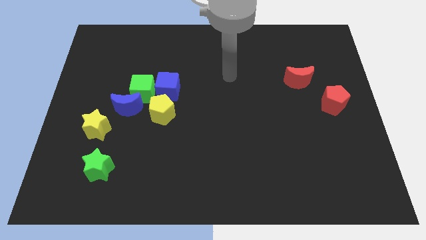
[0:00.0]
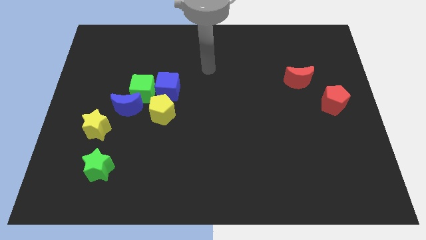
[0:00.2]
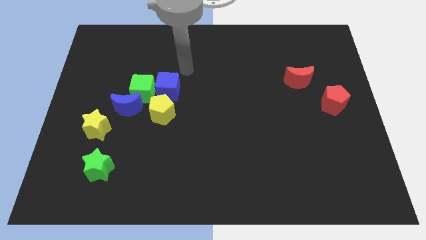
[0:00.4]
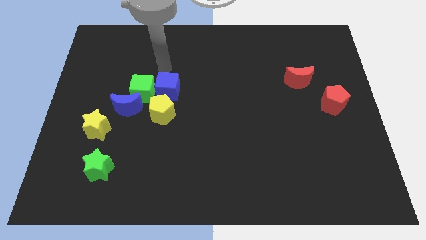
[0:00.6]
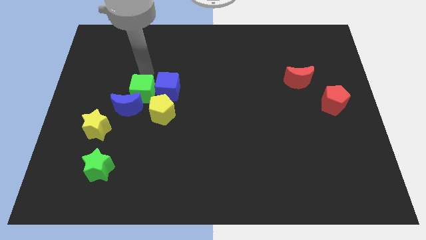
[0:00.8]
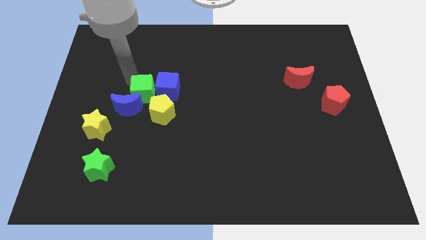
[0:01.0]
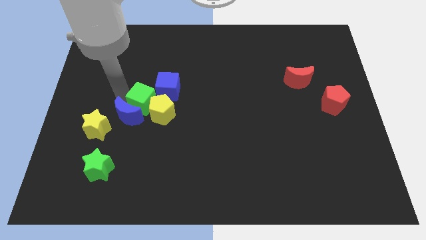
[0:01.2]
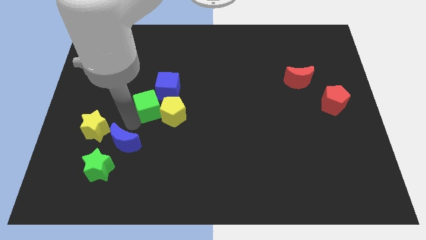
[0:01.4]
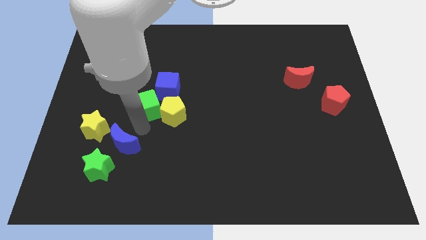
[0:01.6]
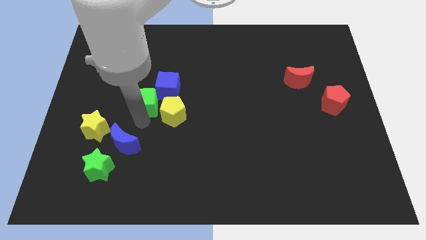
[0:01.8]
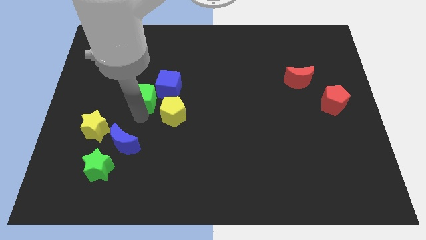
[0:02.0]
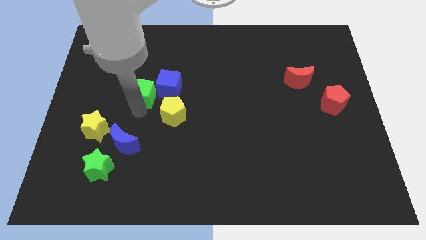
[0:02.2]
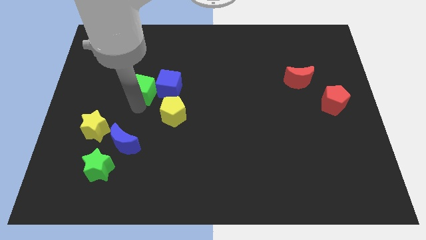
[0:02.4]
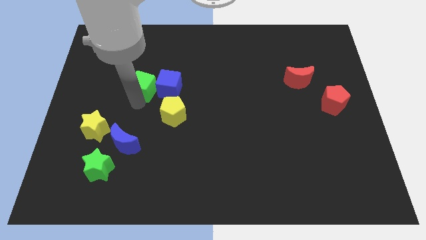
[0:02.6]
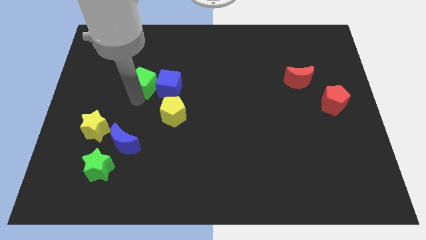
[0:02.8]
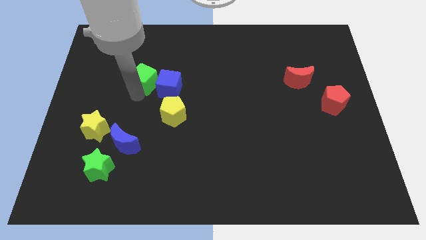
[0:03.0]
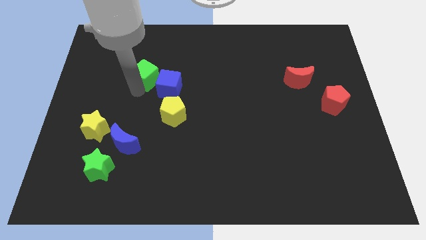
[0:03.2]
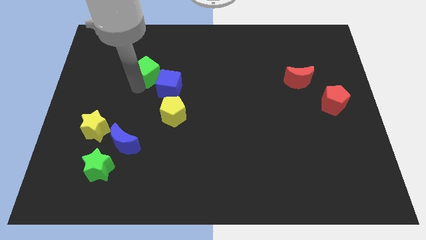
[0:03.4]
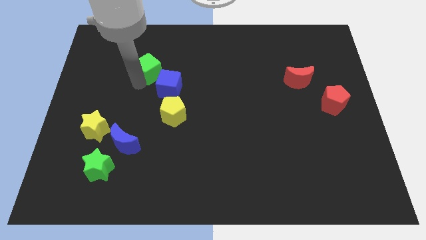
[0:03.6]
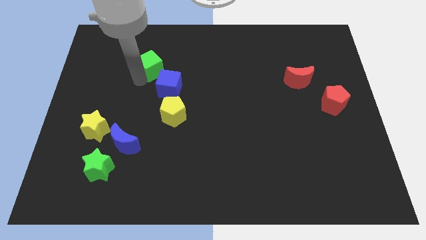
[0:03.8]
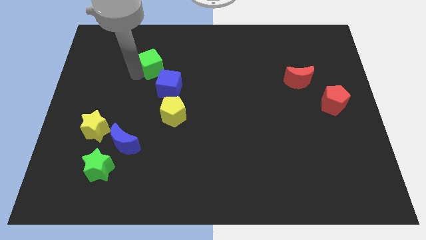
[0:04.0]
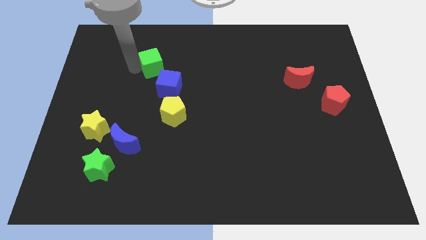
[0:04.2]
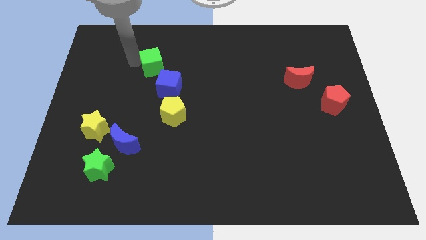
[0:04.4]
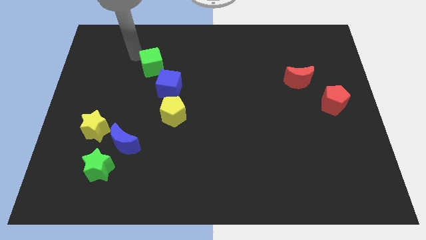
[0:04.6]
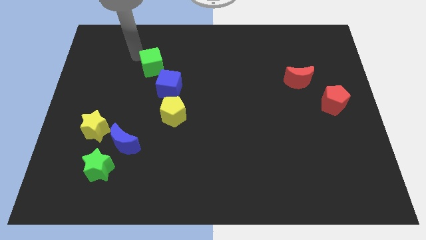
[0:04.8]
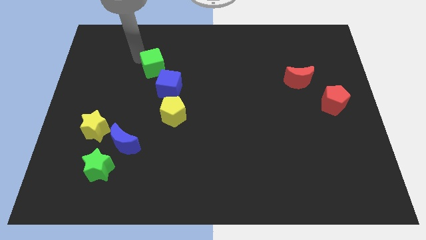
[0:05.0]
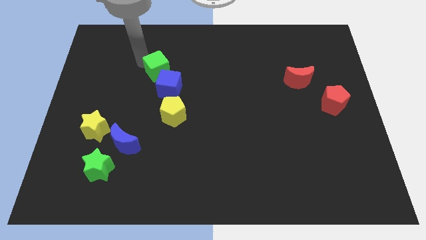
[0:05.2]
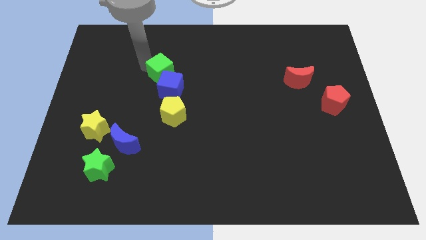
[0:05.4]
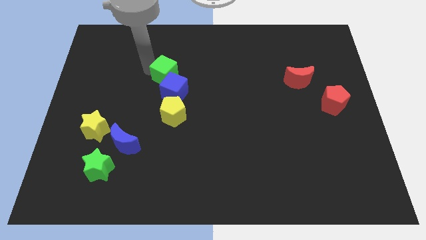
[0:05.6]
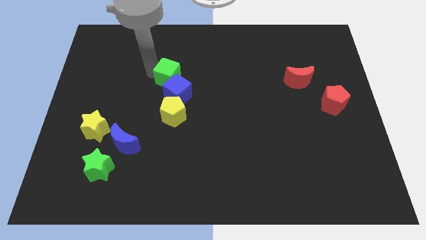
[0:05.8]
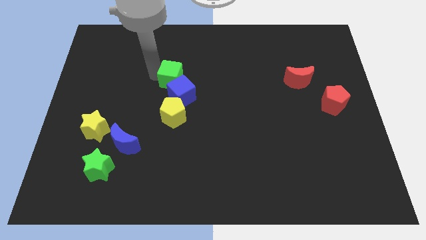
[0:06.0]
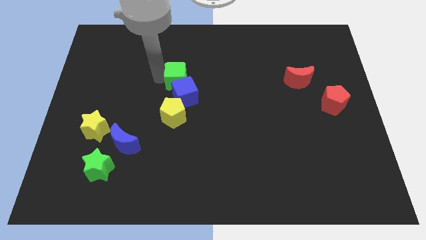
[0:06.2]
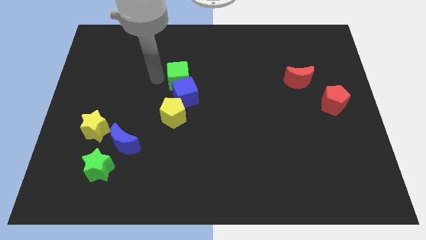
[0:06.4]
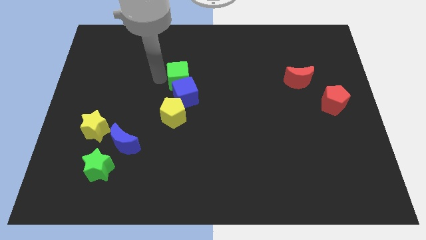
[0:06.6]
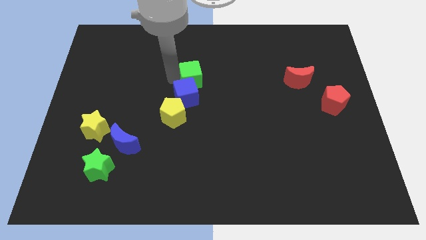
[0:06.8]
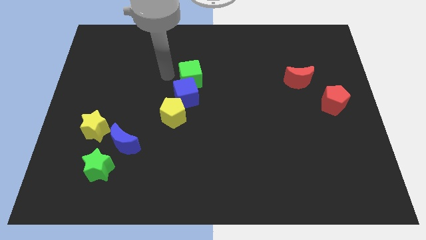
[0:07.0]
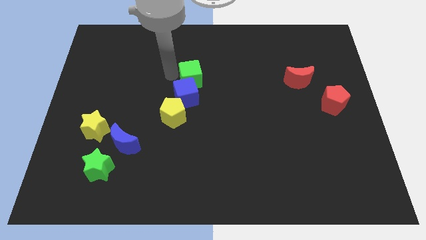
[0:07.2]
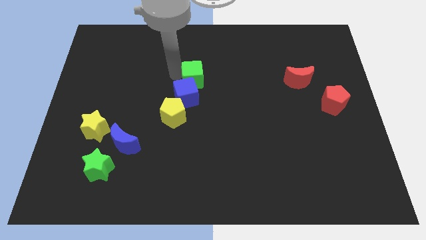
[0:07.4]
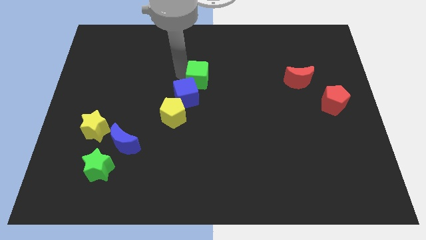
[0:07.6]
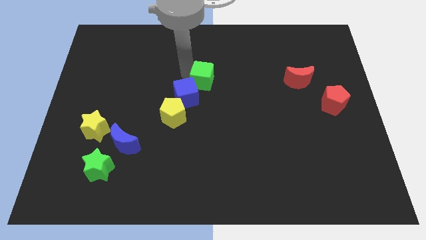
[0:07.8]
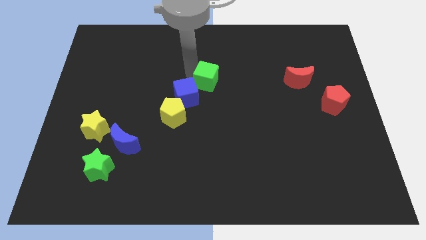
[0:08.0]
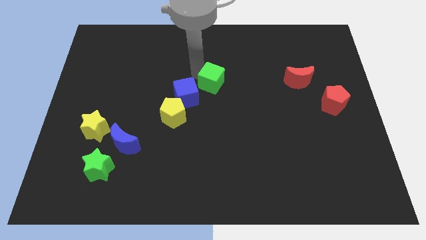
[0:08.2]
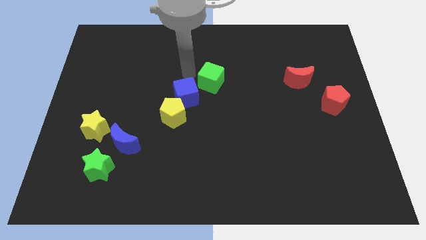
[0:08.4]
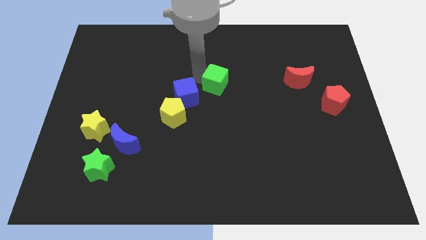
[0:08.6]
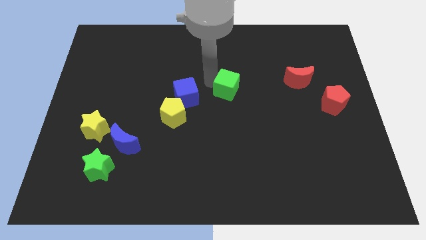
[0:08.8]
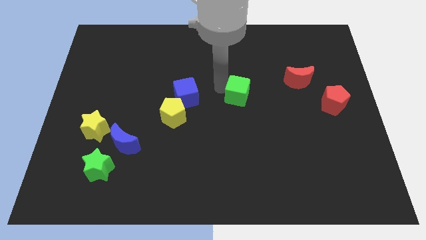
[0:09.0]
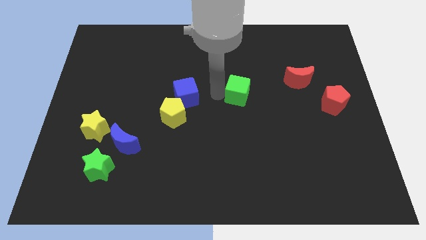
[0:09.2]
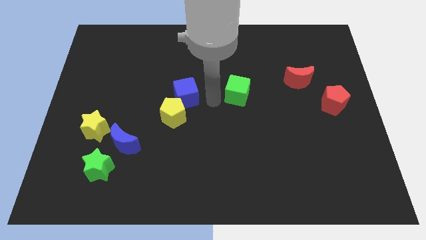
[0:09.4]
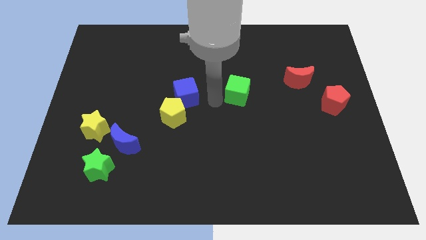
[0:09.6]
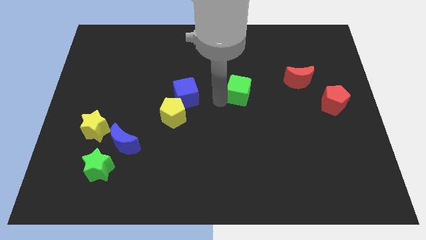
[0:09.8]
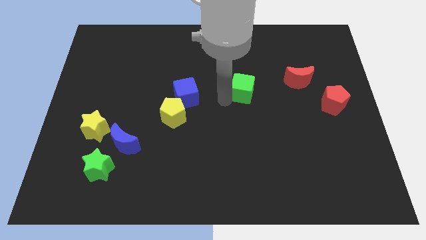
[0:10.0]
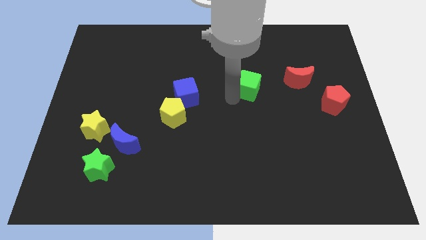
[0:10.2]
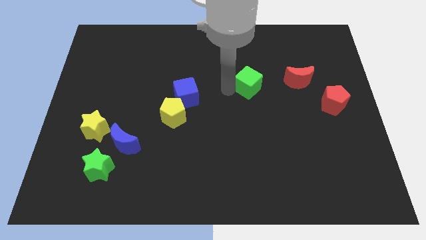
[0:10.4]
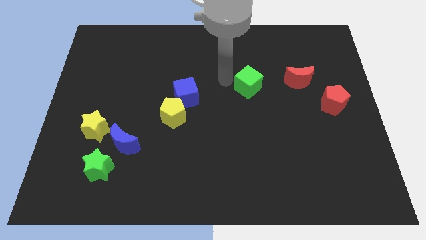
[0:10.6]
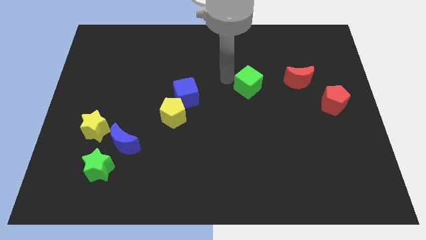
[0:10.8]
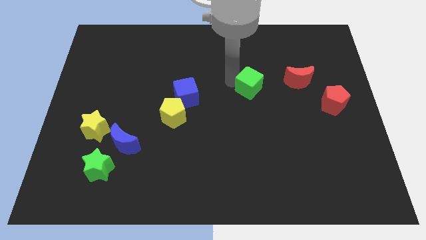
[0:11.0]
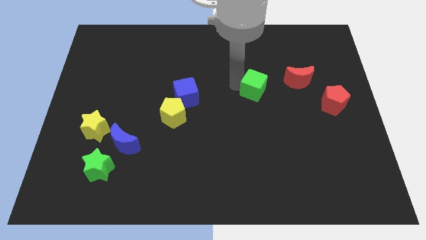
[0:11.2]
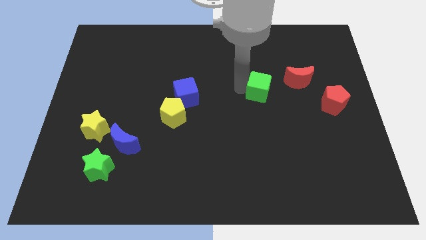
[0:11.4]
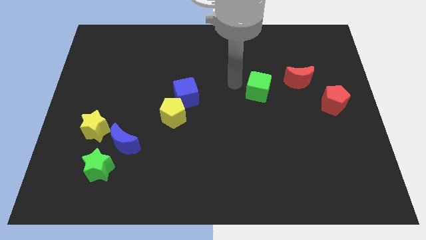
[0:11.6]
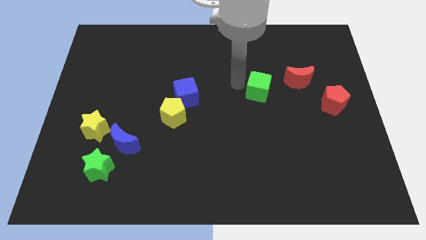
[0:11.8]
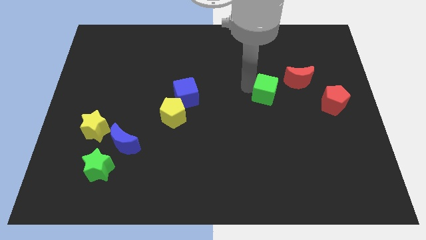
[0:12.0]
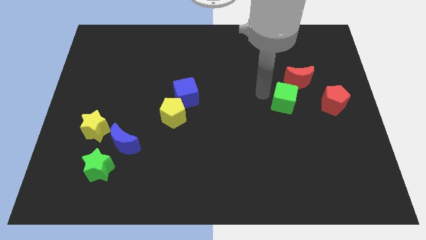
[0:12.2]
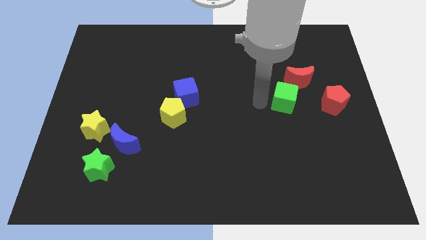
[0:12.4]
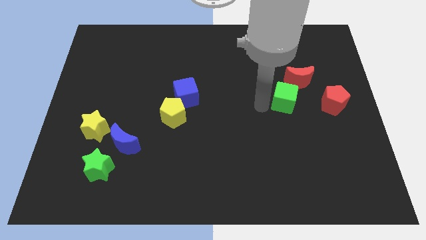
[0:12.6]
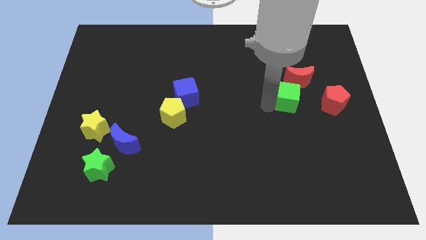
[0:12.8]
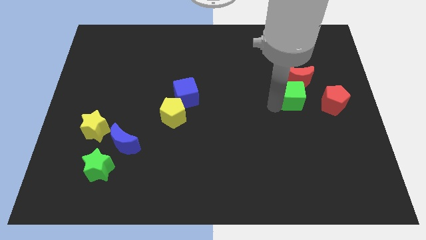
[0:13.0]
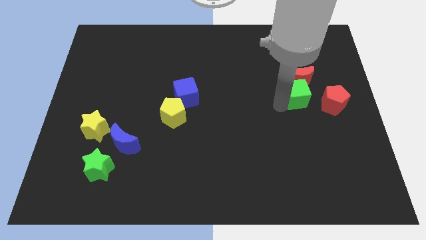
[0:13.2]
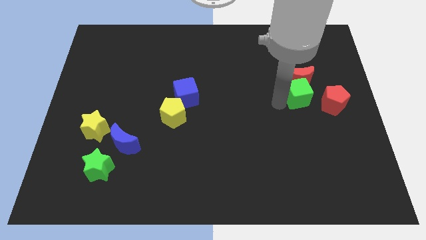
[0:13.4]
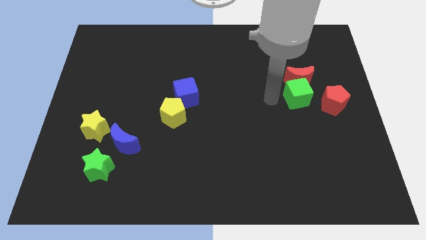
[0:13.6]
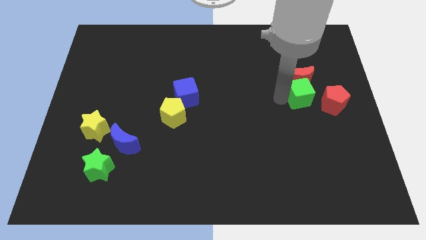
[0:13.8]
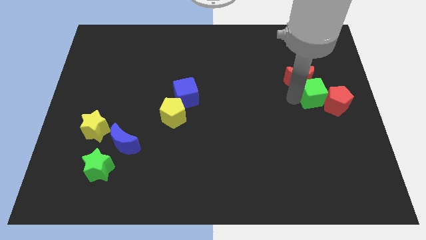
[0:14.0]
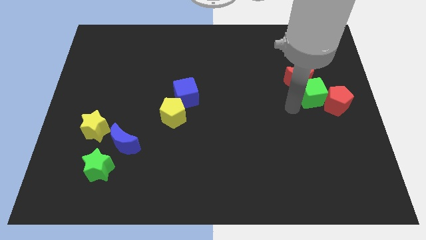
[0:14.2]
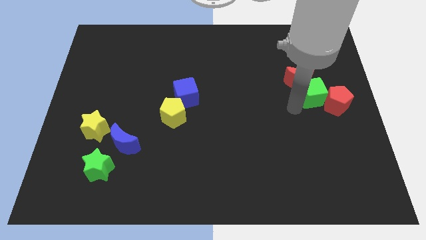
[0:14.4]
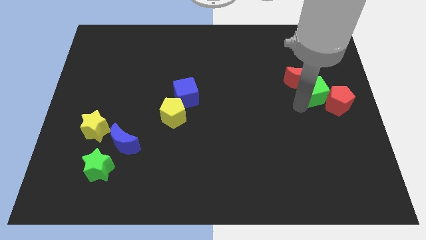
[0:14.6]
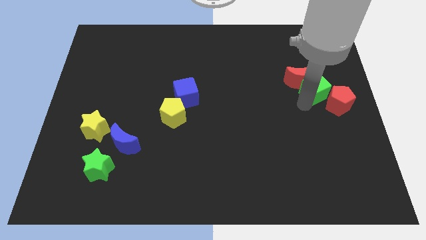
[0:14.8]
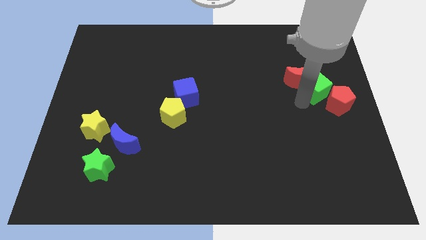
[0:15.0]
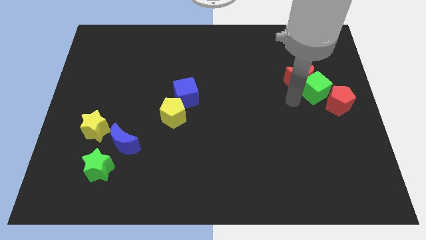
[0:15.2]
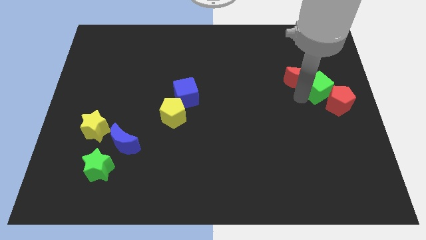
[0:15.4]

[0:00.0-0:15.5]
move the green cube to the right side
